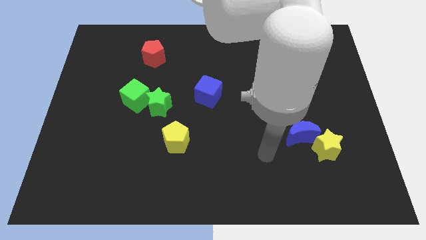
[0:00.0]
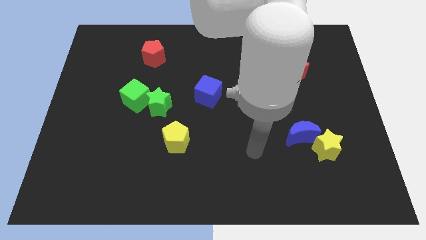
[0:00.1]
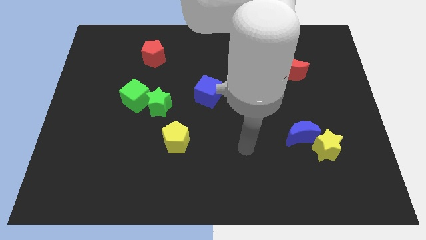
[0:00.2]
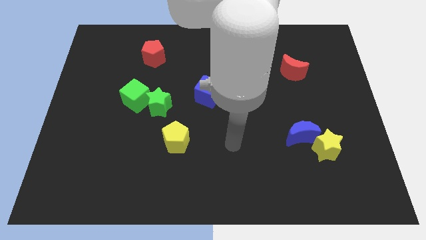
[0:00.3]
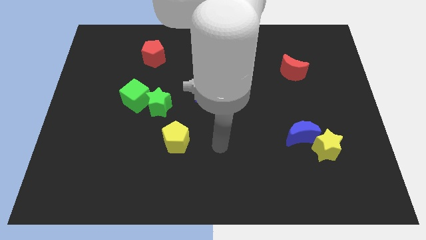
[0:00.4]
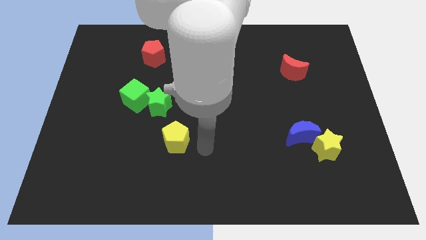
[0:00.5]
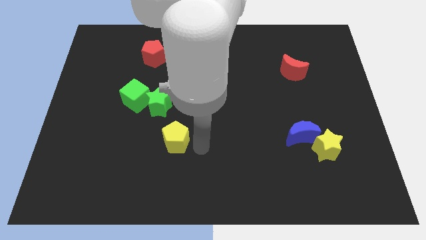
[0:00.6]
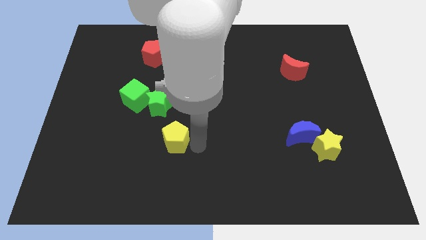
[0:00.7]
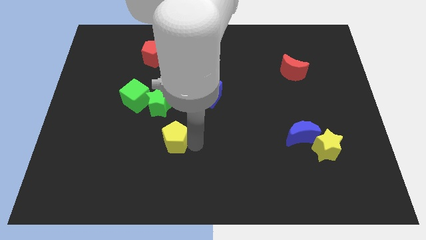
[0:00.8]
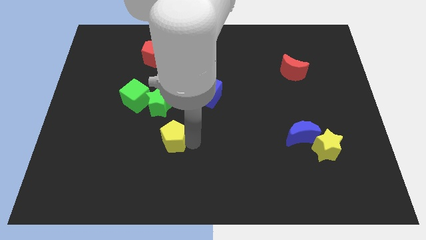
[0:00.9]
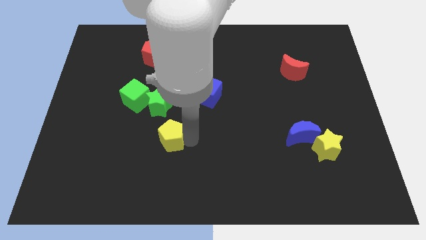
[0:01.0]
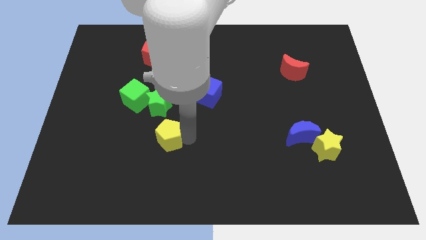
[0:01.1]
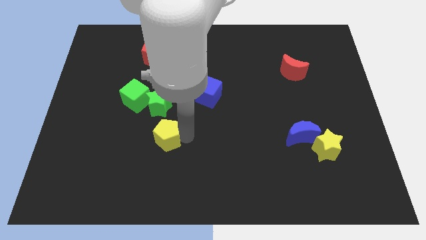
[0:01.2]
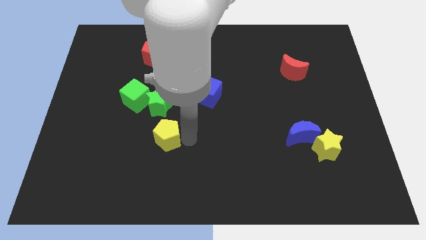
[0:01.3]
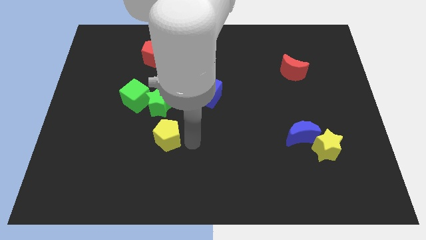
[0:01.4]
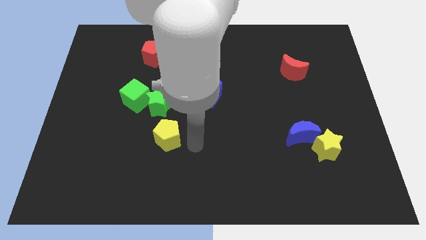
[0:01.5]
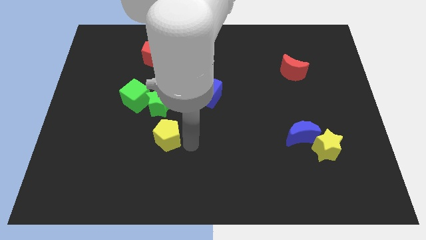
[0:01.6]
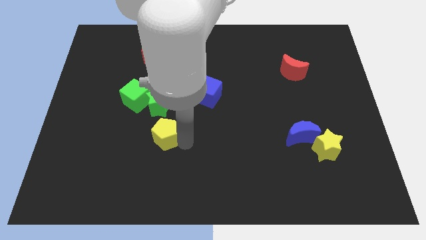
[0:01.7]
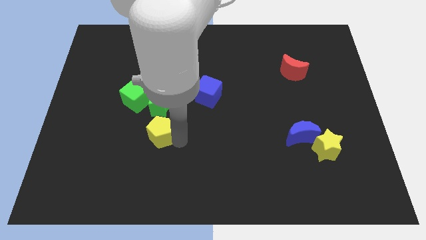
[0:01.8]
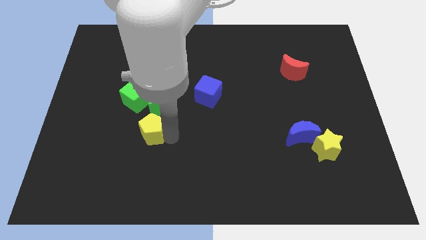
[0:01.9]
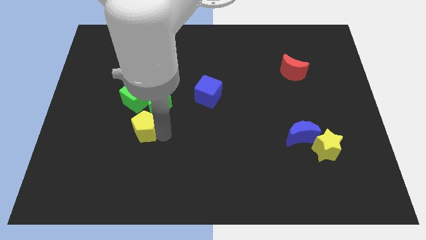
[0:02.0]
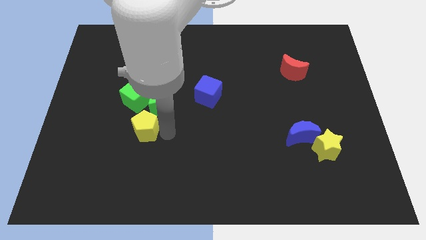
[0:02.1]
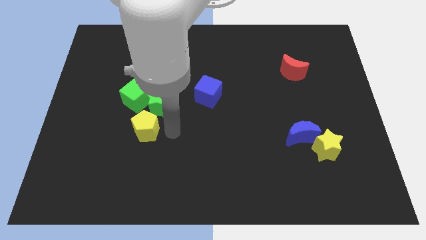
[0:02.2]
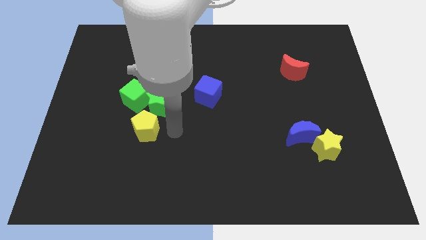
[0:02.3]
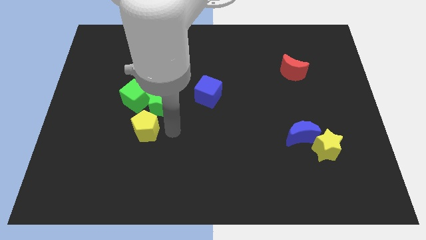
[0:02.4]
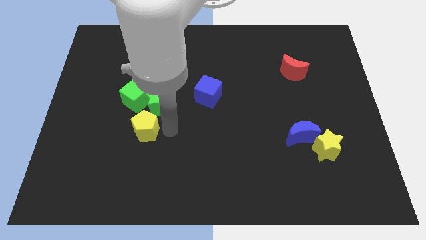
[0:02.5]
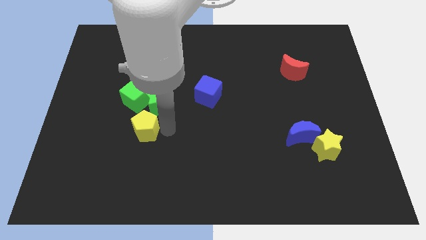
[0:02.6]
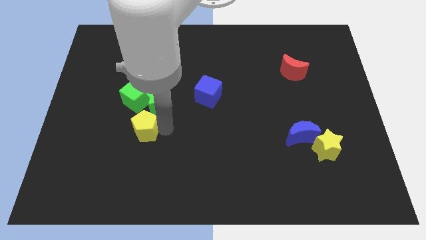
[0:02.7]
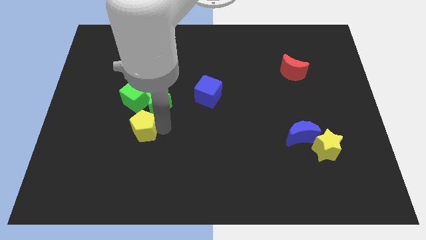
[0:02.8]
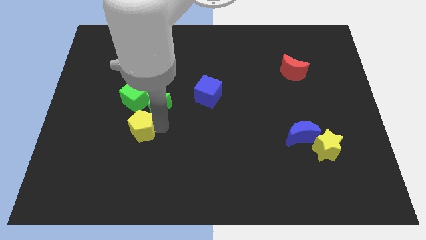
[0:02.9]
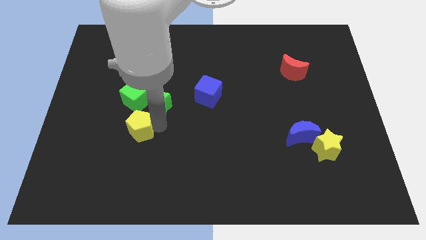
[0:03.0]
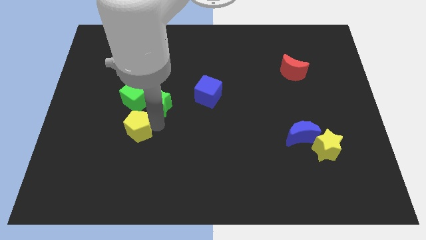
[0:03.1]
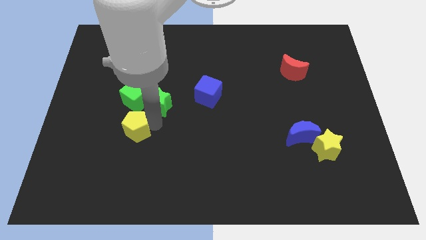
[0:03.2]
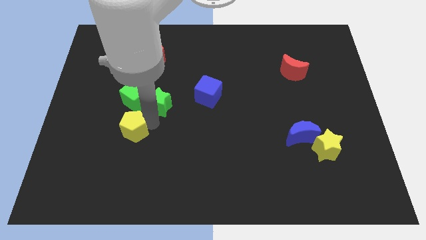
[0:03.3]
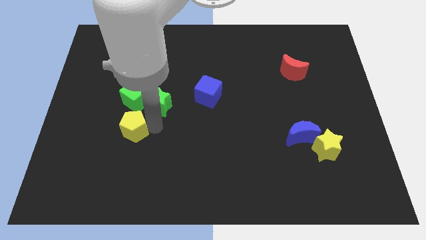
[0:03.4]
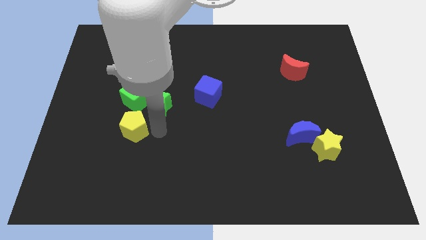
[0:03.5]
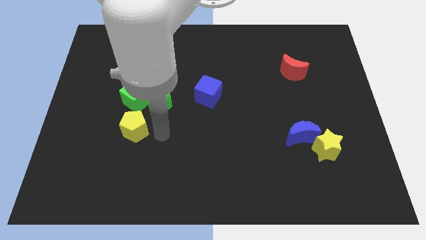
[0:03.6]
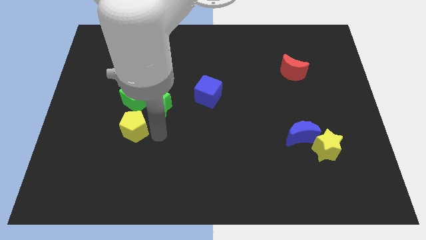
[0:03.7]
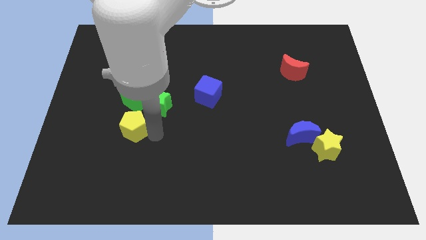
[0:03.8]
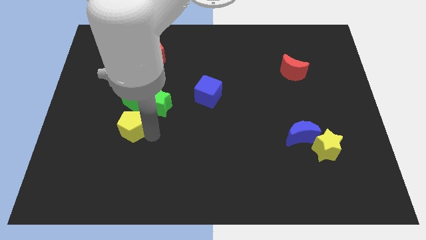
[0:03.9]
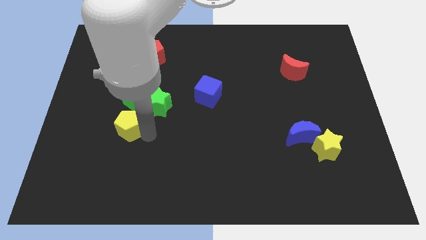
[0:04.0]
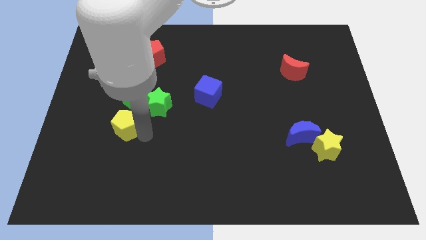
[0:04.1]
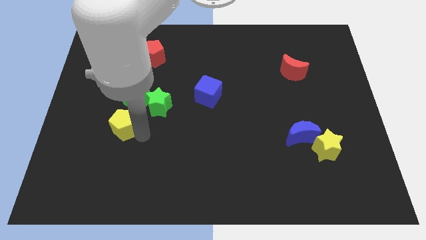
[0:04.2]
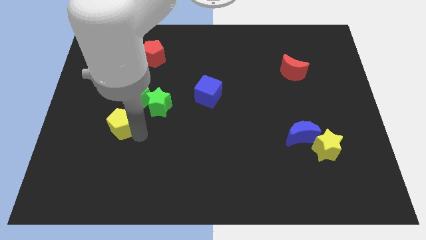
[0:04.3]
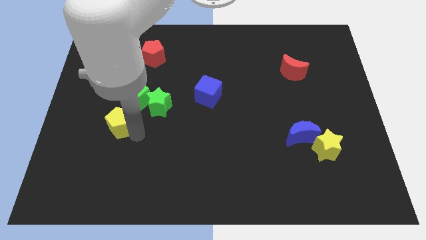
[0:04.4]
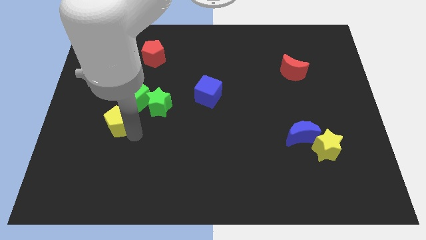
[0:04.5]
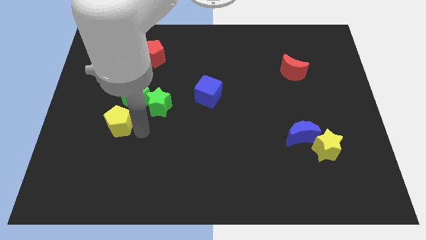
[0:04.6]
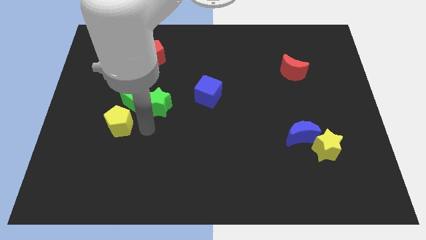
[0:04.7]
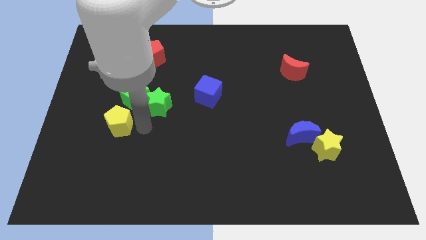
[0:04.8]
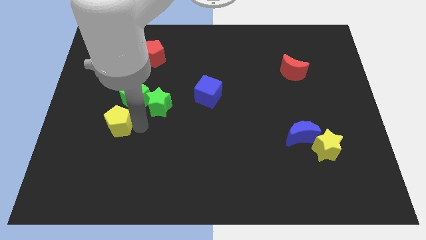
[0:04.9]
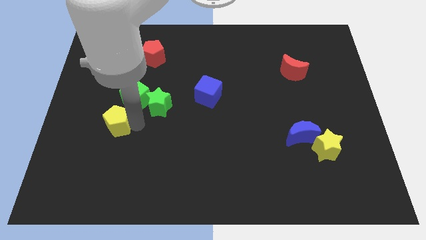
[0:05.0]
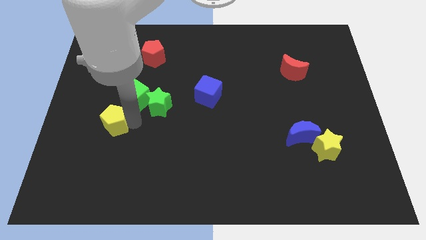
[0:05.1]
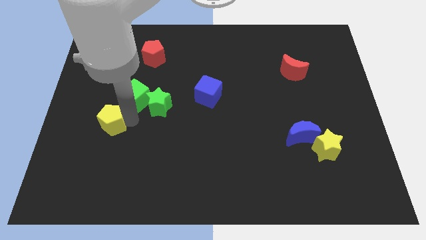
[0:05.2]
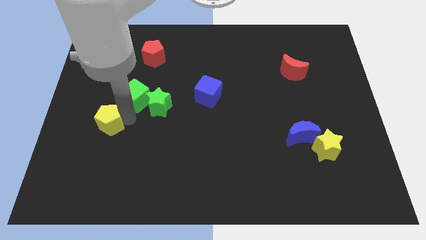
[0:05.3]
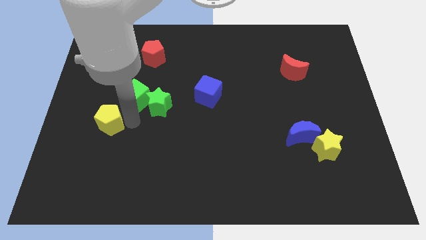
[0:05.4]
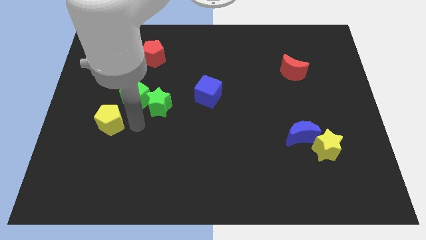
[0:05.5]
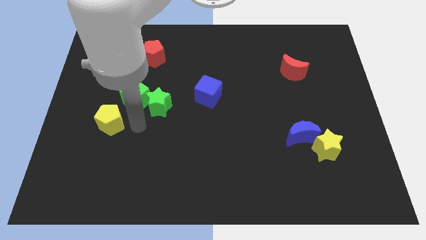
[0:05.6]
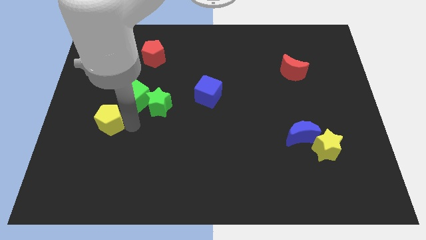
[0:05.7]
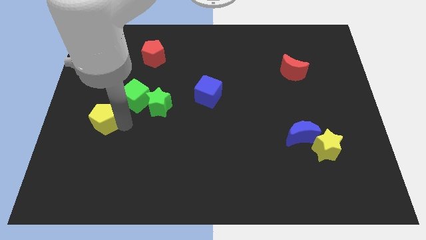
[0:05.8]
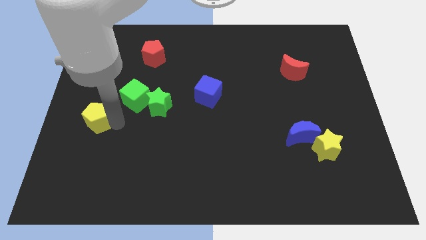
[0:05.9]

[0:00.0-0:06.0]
put the yellow pentagon to the center left

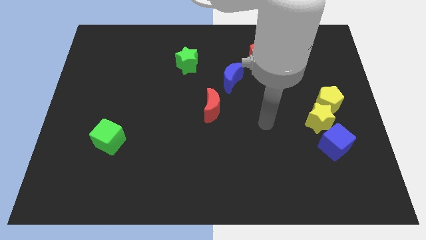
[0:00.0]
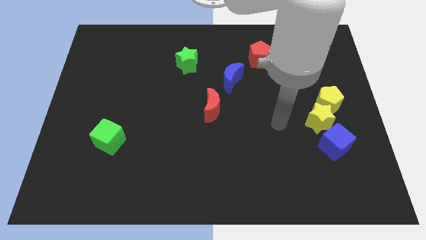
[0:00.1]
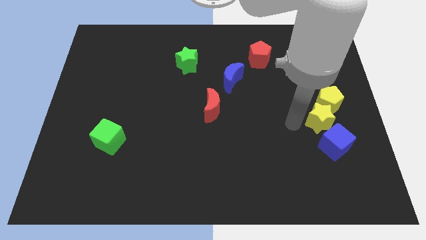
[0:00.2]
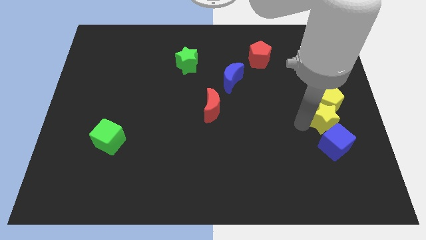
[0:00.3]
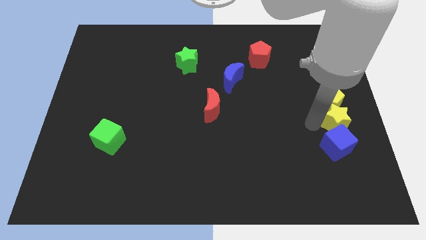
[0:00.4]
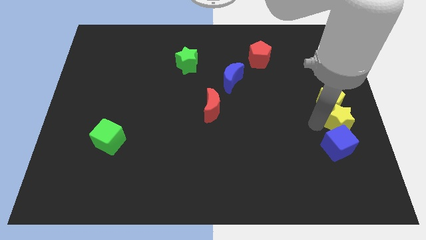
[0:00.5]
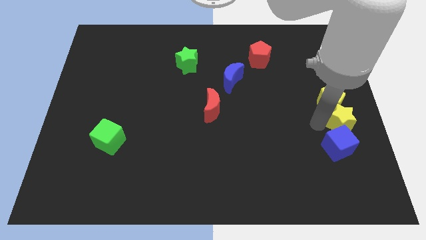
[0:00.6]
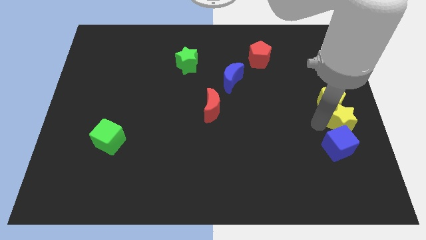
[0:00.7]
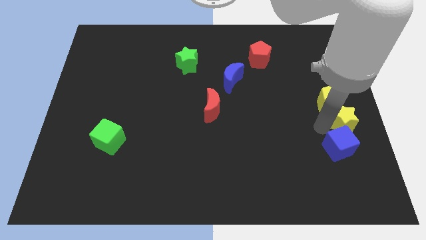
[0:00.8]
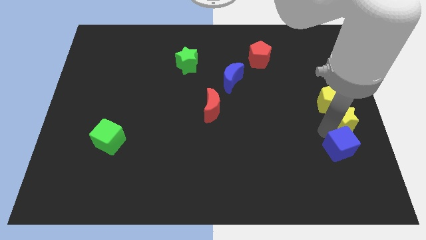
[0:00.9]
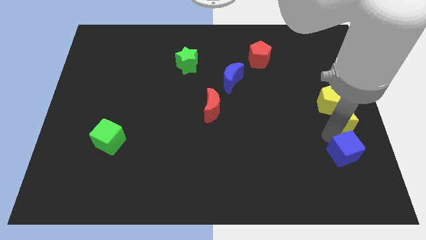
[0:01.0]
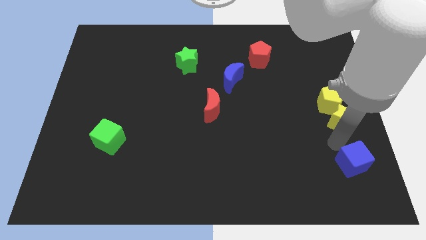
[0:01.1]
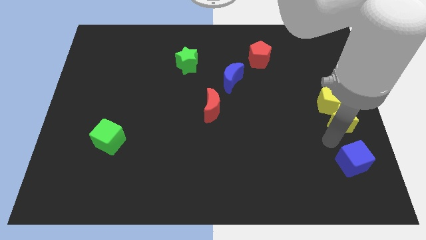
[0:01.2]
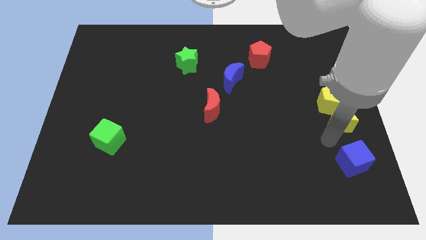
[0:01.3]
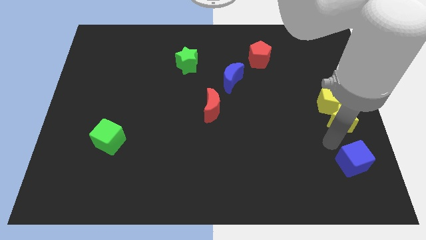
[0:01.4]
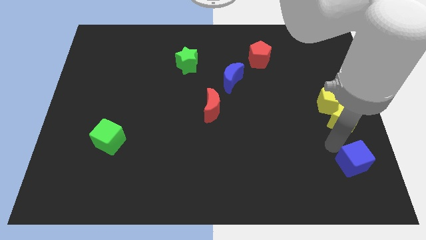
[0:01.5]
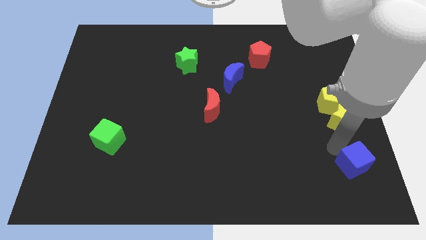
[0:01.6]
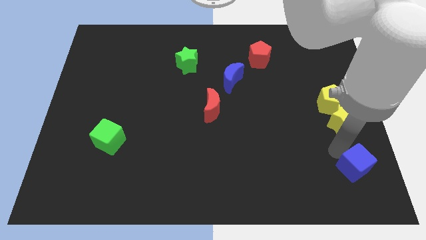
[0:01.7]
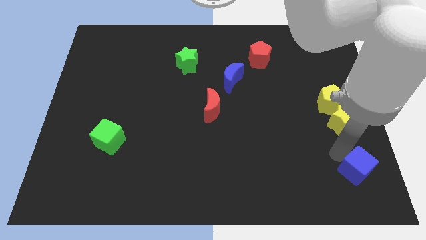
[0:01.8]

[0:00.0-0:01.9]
move the blue cube to the bottom right of the board
